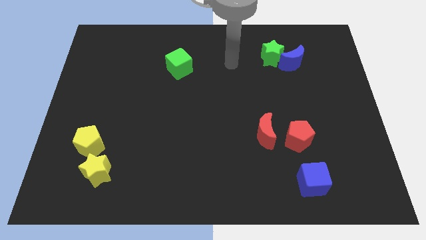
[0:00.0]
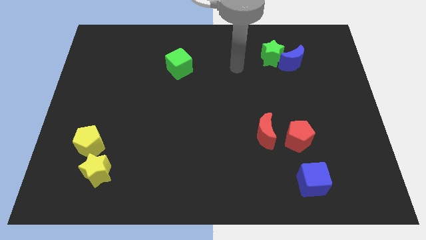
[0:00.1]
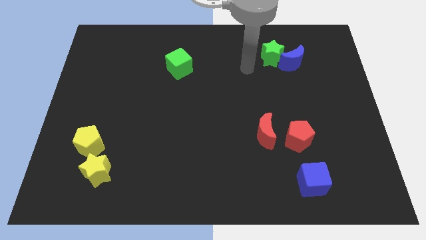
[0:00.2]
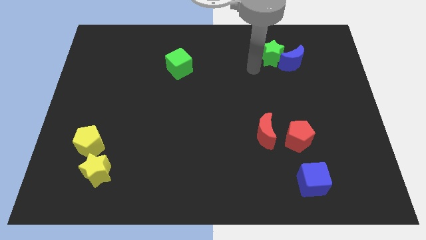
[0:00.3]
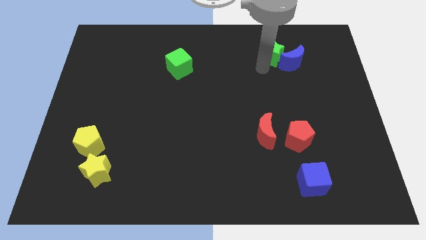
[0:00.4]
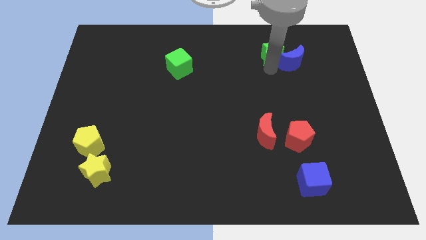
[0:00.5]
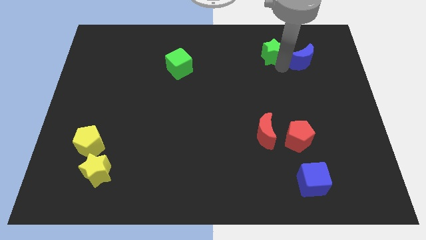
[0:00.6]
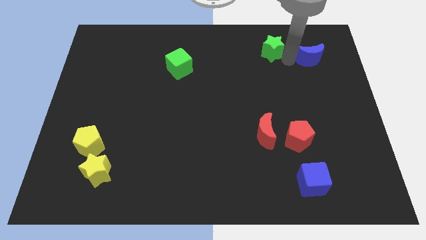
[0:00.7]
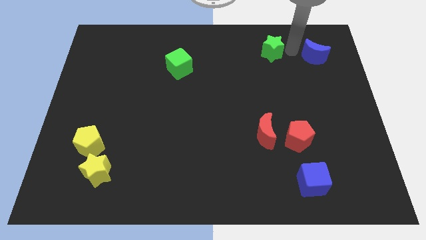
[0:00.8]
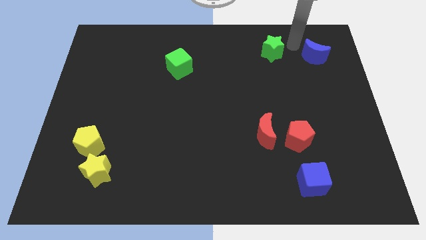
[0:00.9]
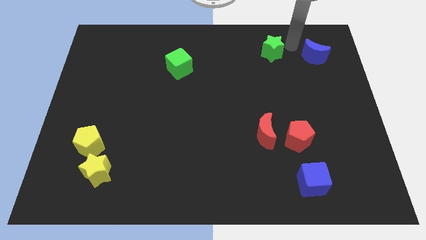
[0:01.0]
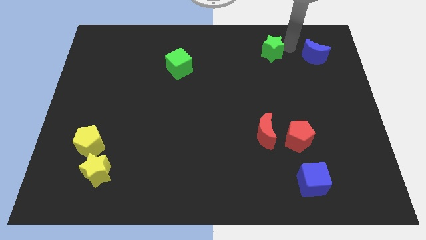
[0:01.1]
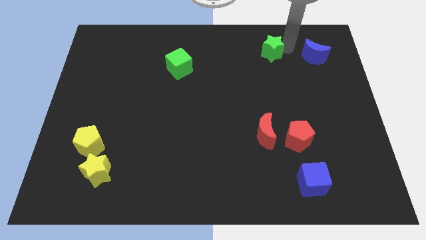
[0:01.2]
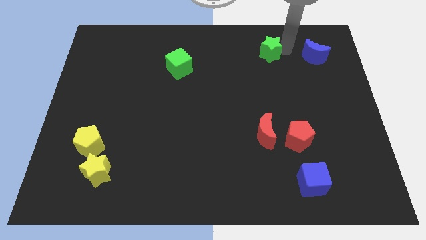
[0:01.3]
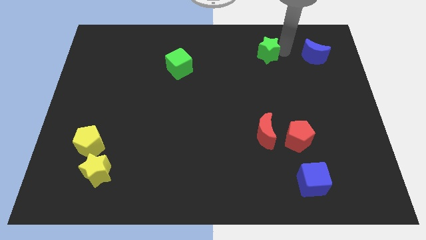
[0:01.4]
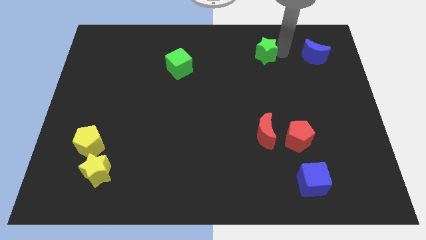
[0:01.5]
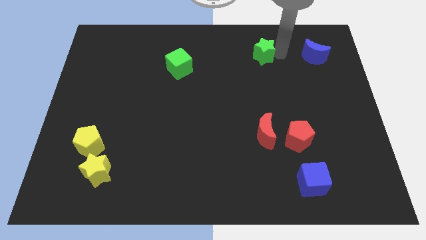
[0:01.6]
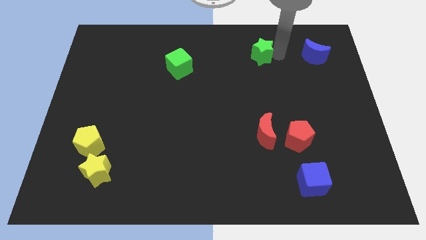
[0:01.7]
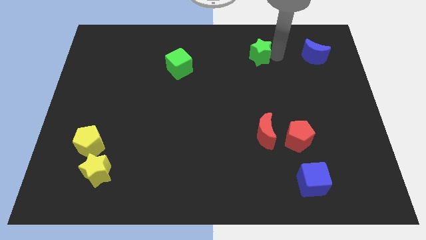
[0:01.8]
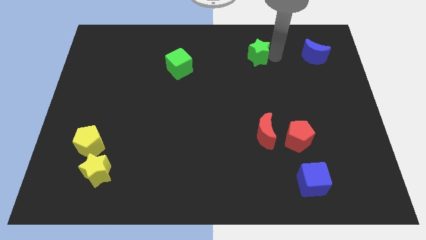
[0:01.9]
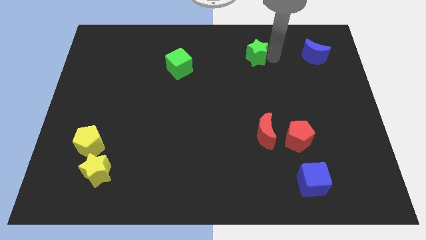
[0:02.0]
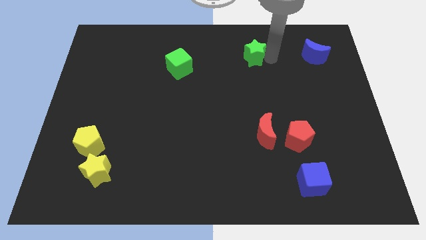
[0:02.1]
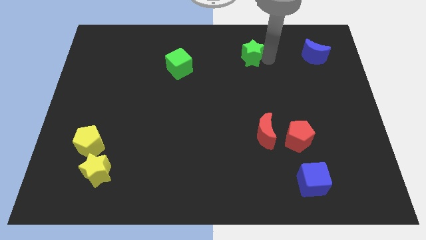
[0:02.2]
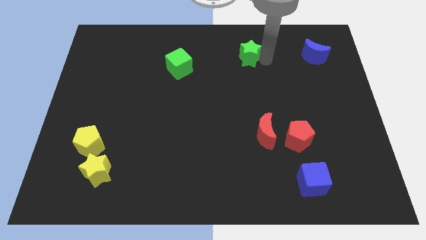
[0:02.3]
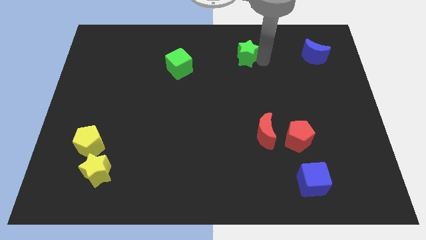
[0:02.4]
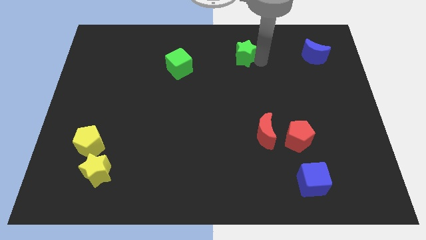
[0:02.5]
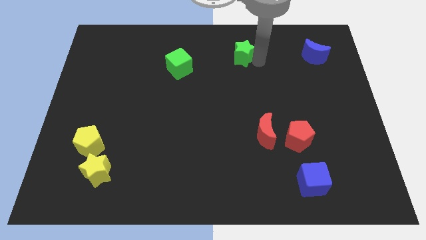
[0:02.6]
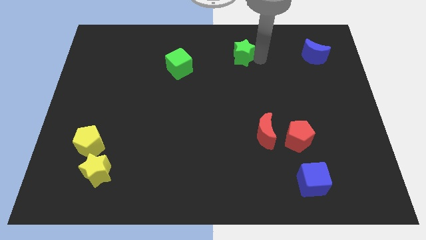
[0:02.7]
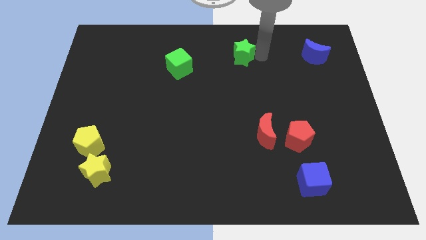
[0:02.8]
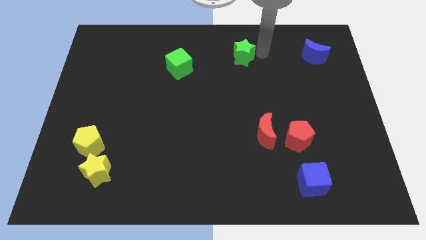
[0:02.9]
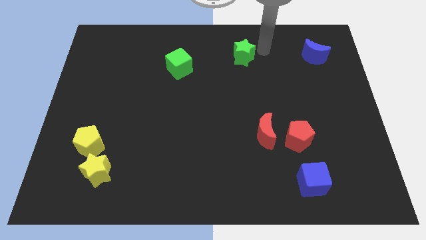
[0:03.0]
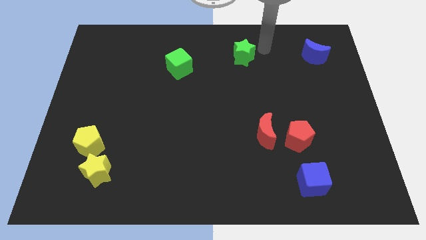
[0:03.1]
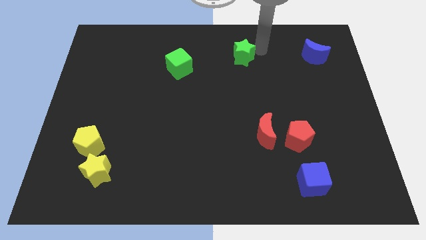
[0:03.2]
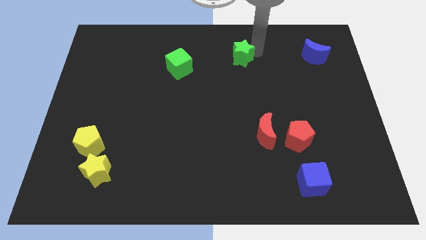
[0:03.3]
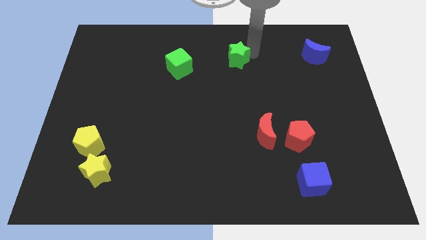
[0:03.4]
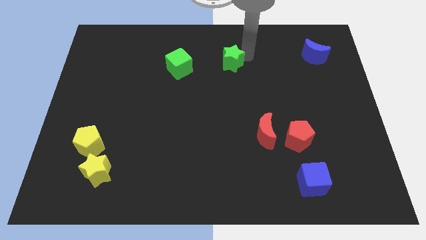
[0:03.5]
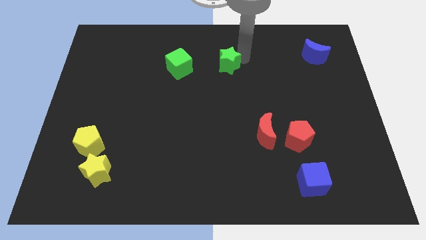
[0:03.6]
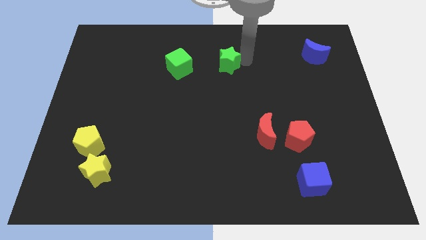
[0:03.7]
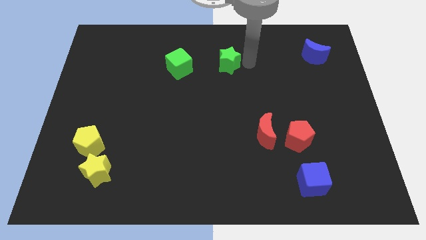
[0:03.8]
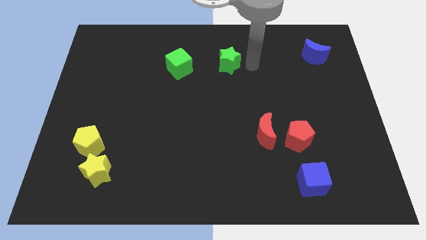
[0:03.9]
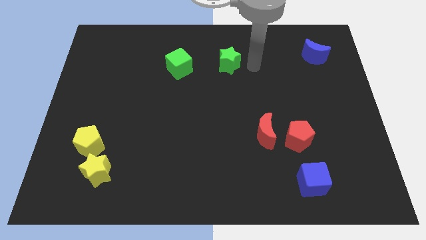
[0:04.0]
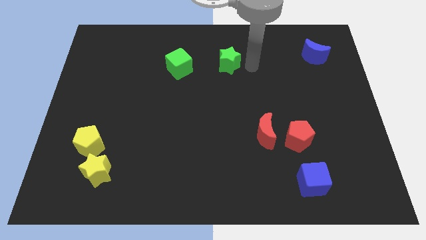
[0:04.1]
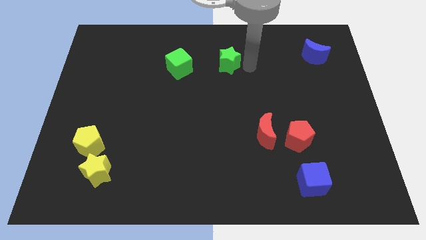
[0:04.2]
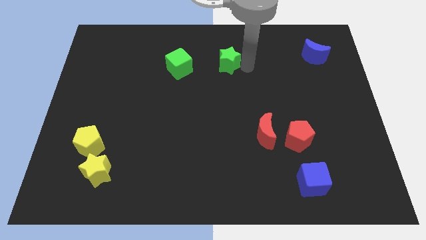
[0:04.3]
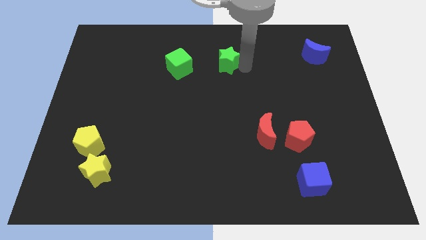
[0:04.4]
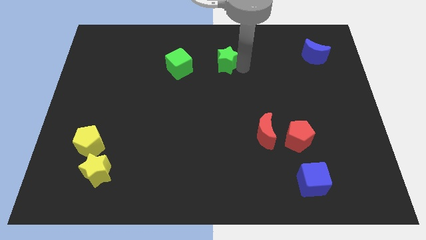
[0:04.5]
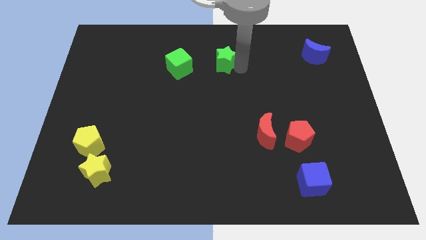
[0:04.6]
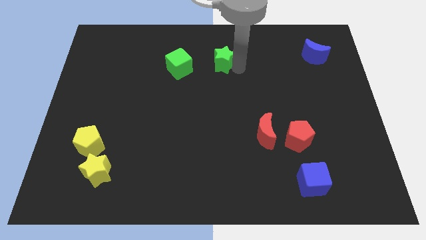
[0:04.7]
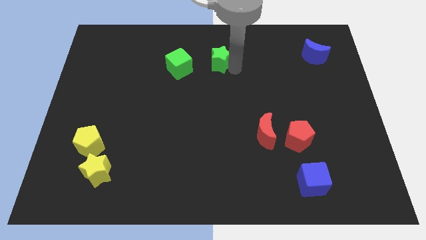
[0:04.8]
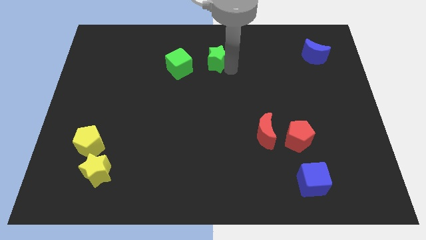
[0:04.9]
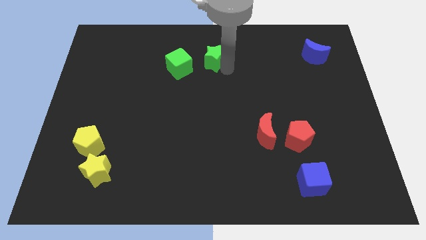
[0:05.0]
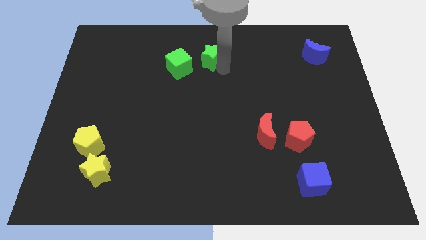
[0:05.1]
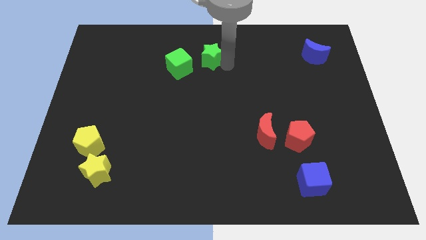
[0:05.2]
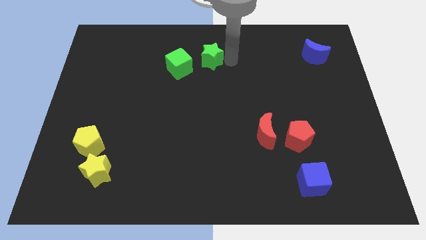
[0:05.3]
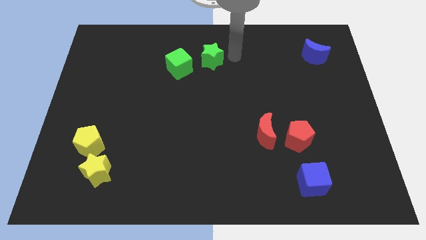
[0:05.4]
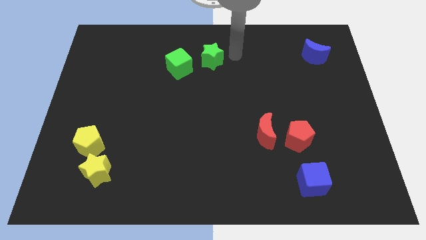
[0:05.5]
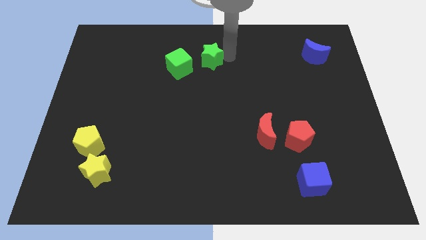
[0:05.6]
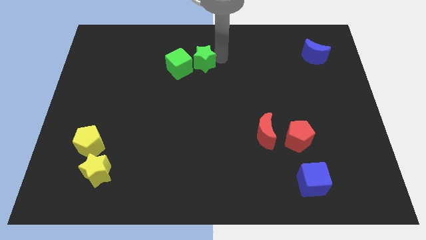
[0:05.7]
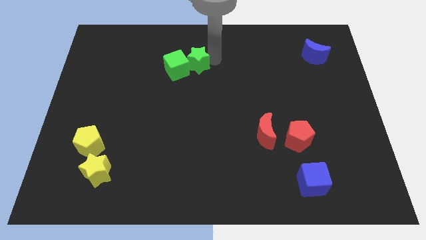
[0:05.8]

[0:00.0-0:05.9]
put the green star to the green cube

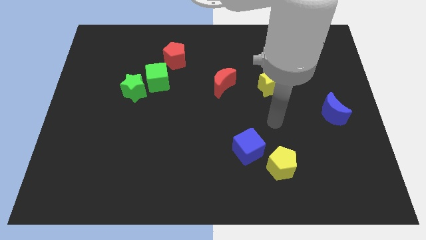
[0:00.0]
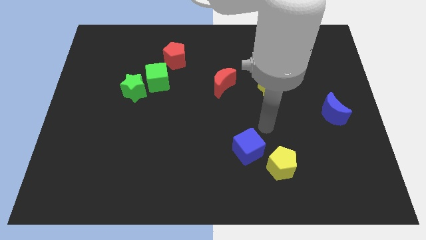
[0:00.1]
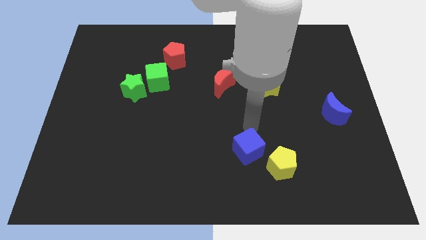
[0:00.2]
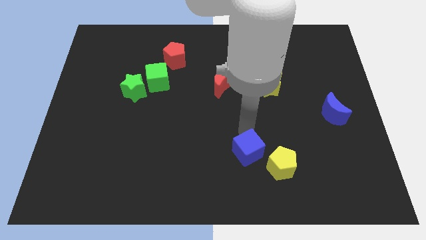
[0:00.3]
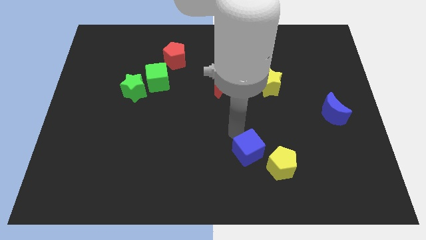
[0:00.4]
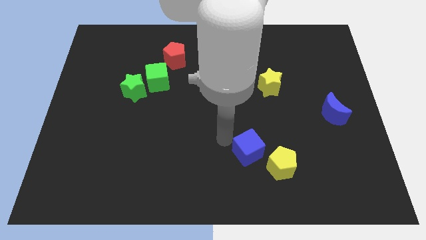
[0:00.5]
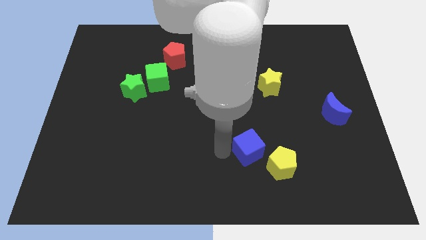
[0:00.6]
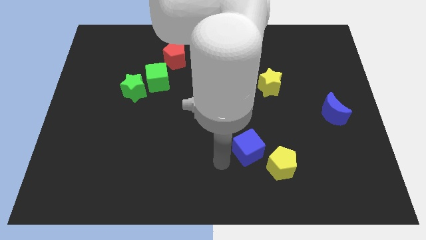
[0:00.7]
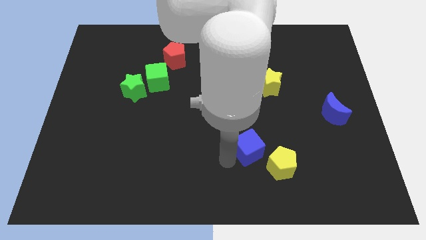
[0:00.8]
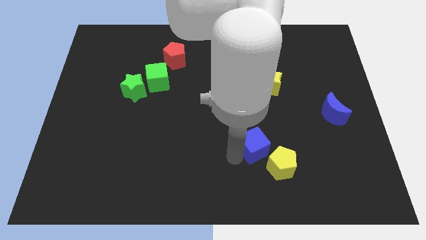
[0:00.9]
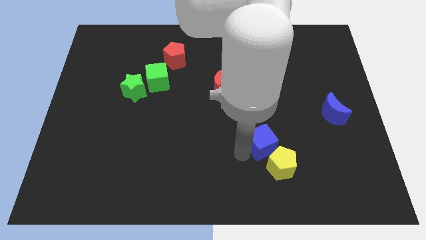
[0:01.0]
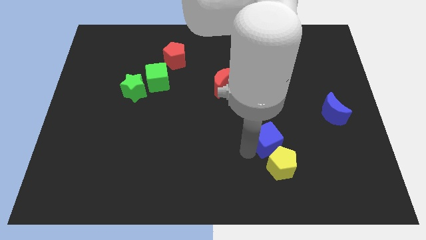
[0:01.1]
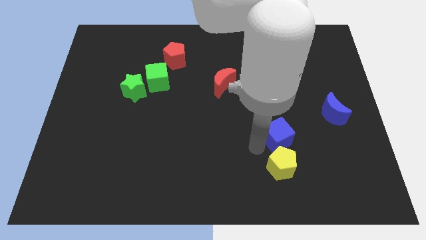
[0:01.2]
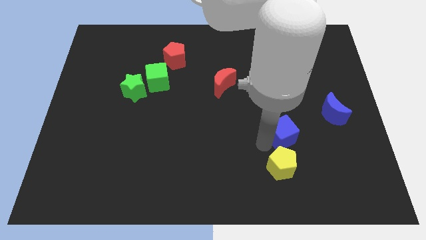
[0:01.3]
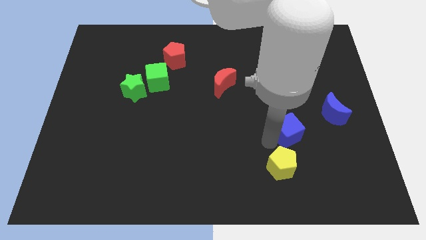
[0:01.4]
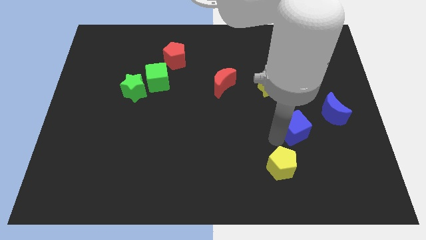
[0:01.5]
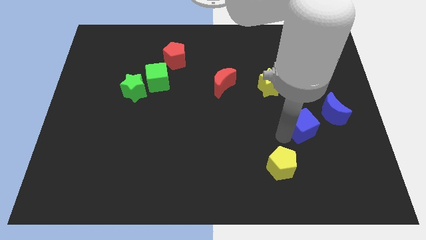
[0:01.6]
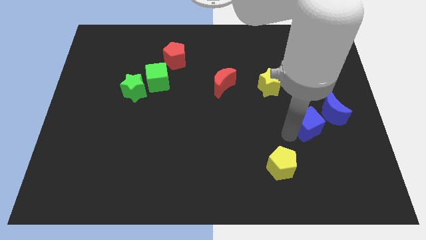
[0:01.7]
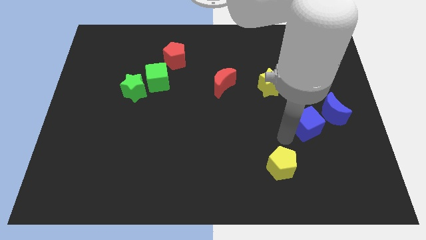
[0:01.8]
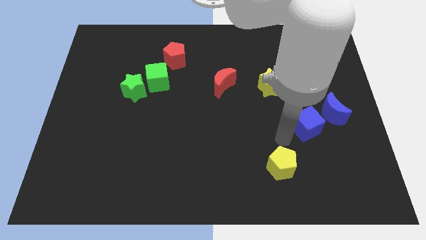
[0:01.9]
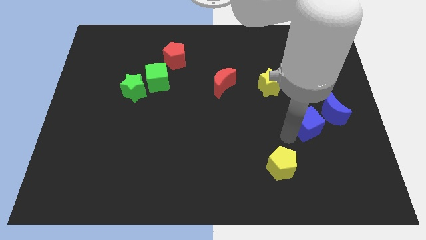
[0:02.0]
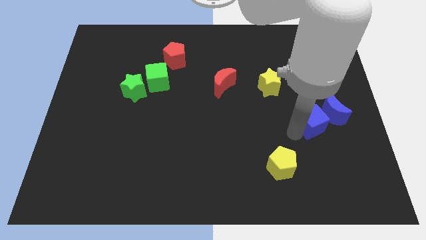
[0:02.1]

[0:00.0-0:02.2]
slide the blue cube close to the blue moon
